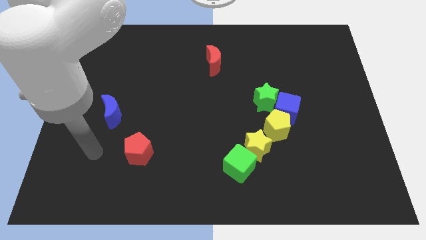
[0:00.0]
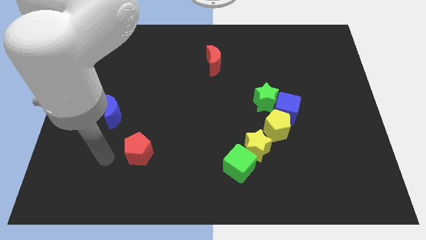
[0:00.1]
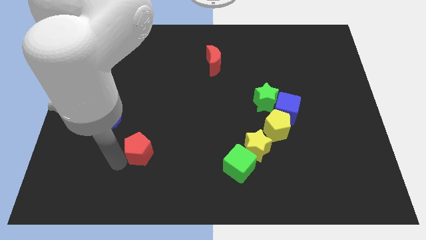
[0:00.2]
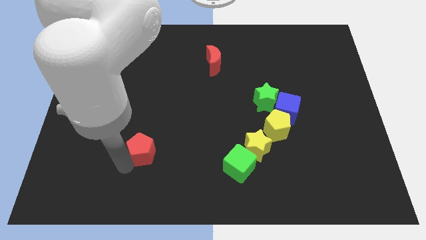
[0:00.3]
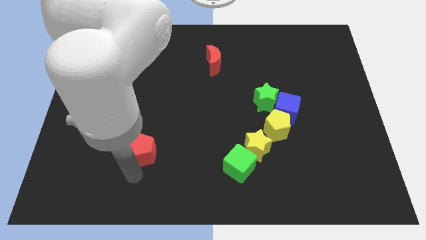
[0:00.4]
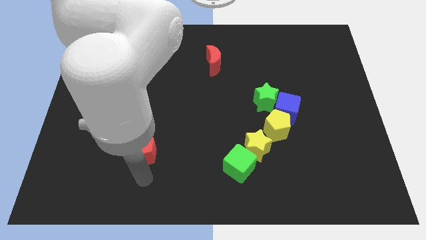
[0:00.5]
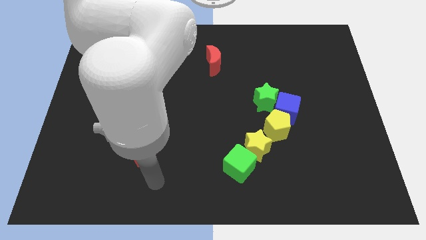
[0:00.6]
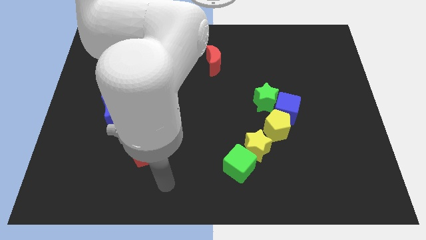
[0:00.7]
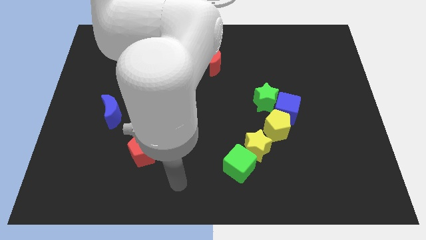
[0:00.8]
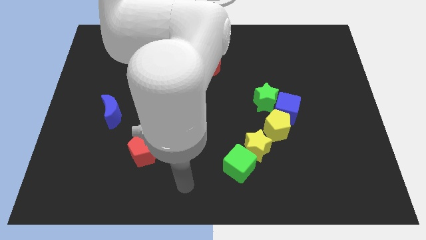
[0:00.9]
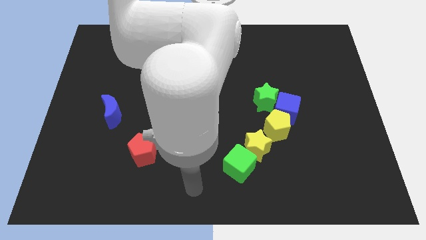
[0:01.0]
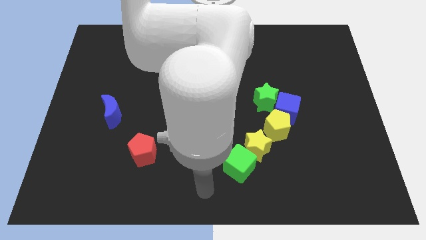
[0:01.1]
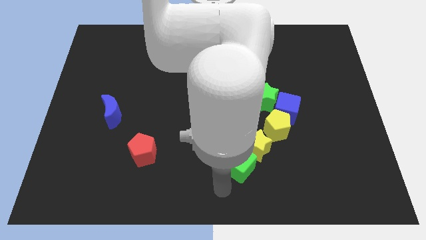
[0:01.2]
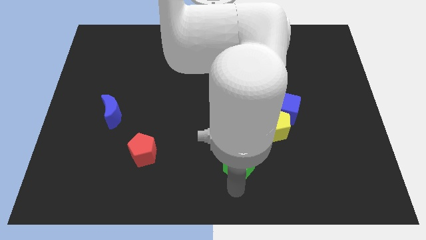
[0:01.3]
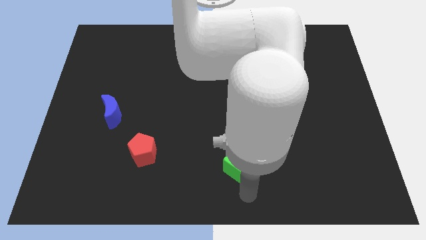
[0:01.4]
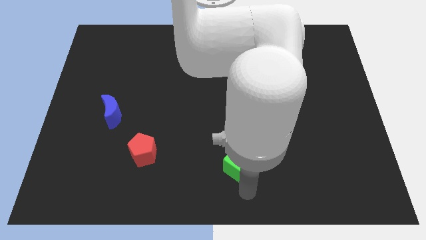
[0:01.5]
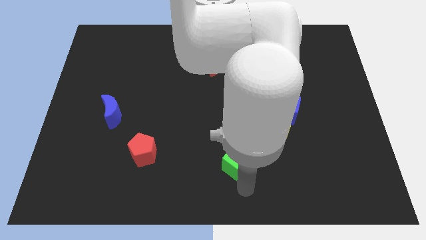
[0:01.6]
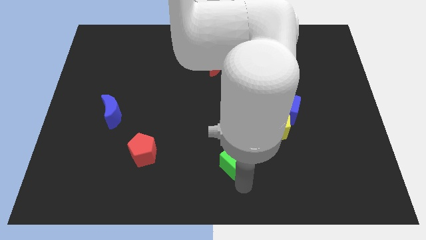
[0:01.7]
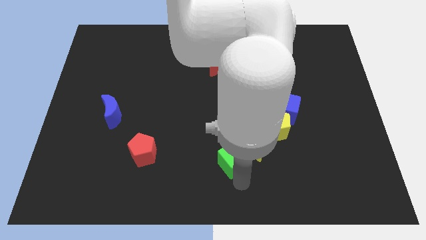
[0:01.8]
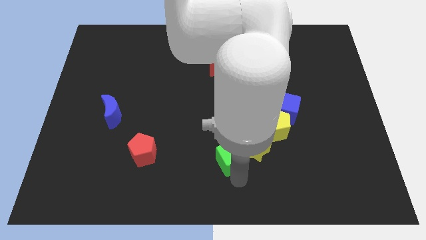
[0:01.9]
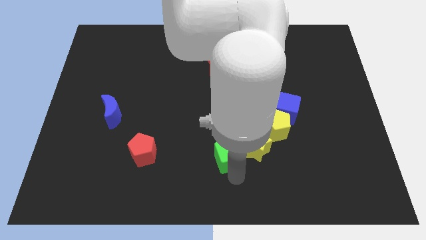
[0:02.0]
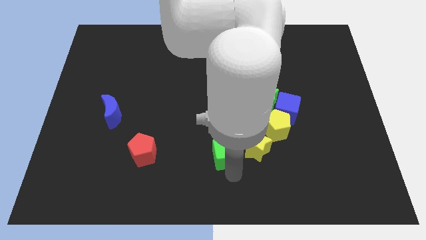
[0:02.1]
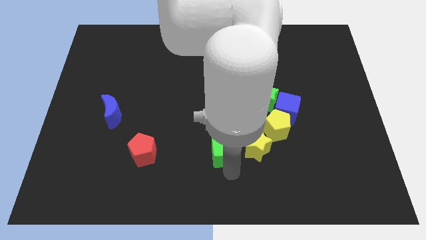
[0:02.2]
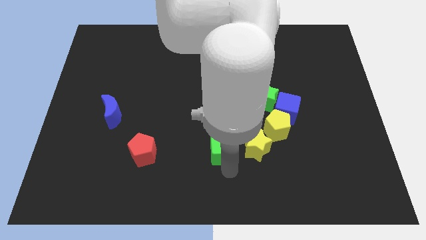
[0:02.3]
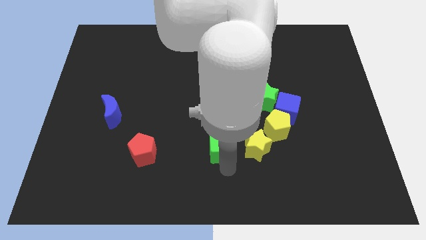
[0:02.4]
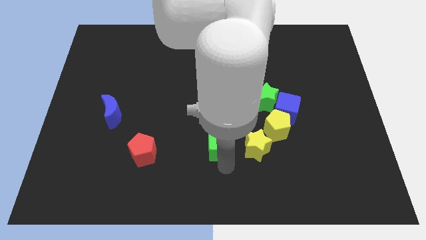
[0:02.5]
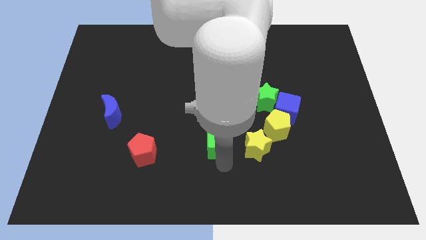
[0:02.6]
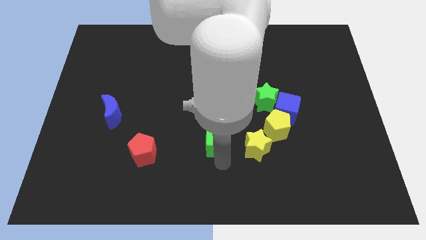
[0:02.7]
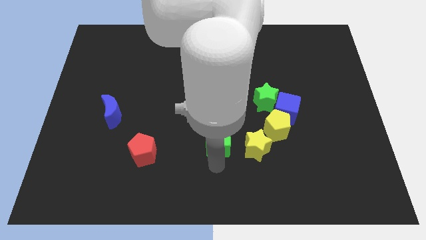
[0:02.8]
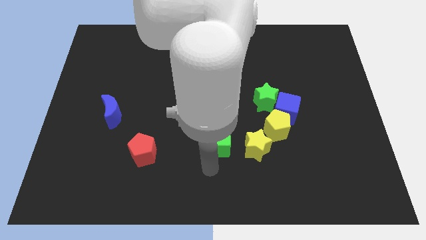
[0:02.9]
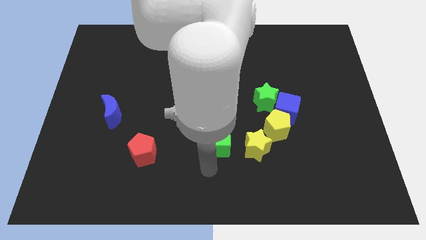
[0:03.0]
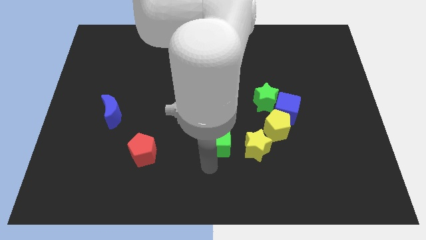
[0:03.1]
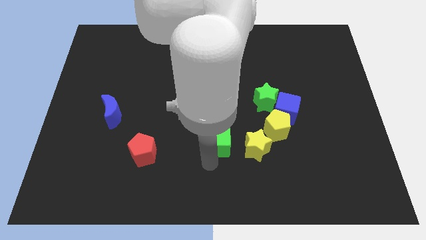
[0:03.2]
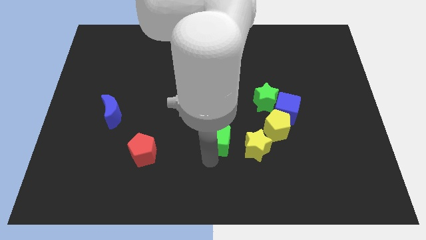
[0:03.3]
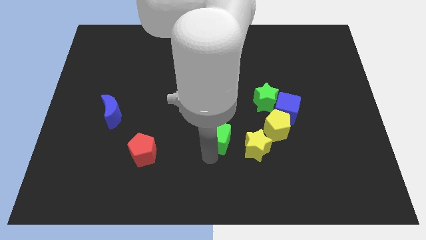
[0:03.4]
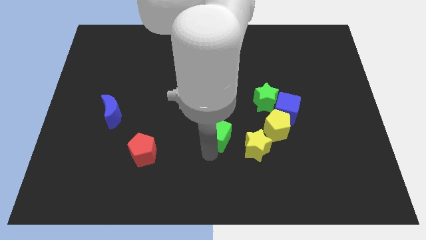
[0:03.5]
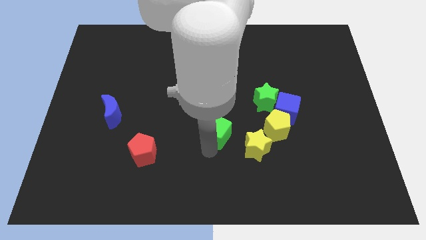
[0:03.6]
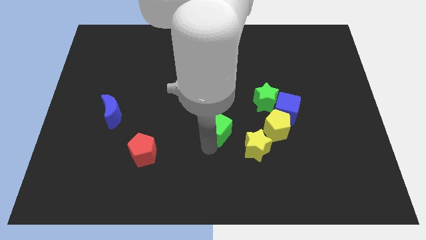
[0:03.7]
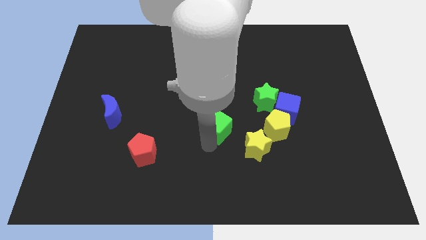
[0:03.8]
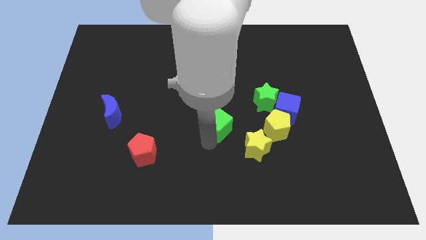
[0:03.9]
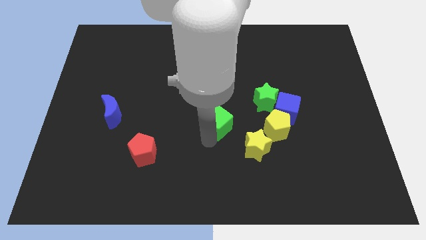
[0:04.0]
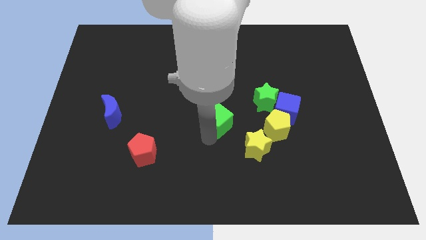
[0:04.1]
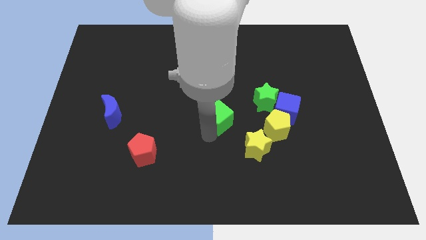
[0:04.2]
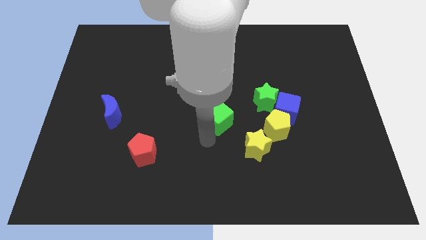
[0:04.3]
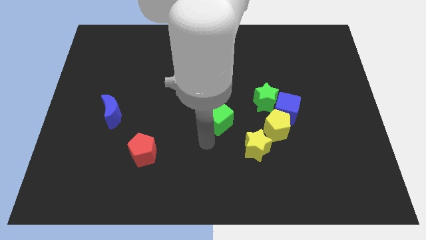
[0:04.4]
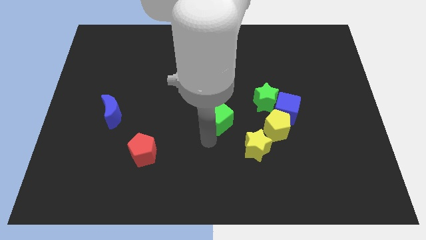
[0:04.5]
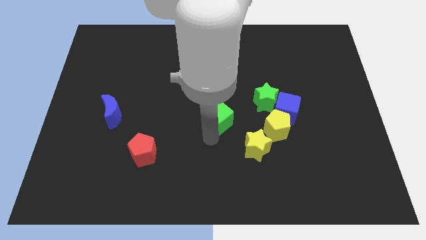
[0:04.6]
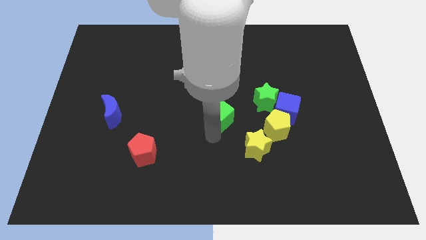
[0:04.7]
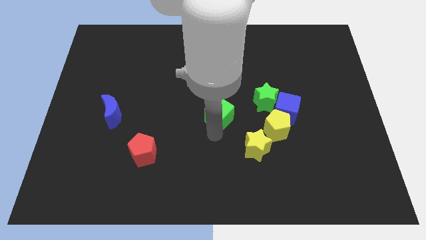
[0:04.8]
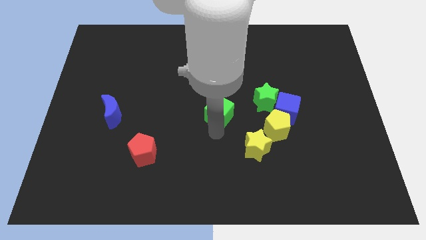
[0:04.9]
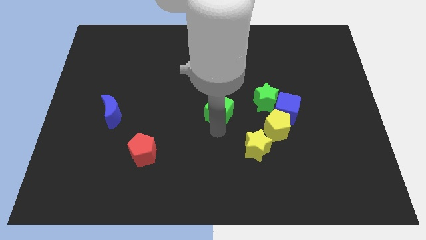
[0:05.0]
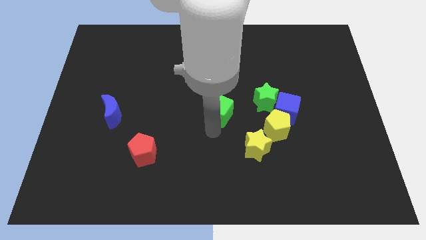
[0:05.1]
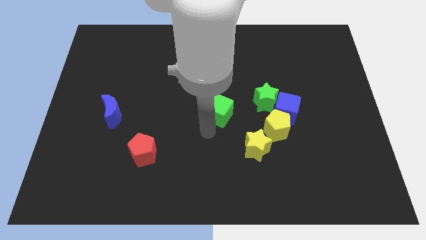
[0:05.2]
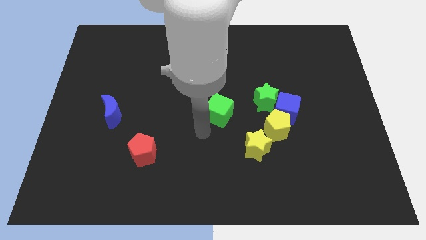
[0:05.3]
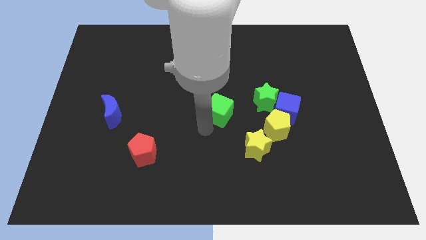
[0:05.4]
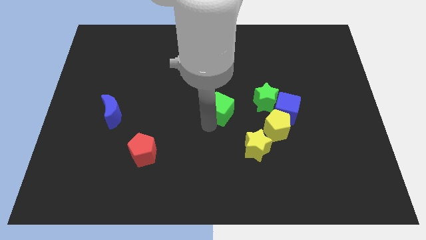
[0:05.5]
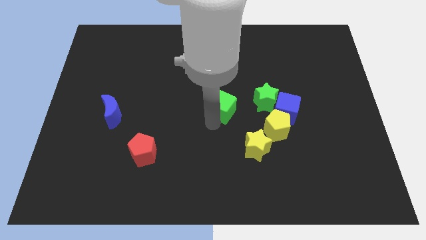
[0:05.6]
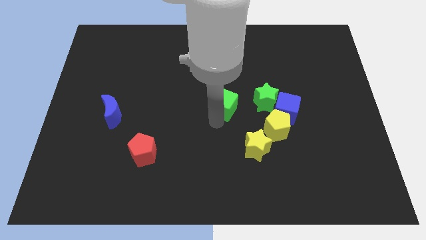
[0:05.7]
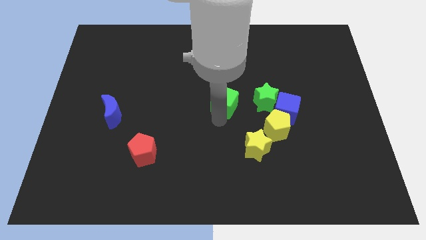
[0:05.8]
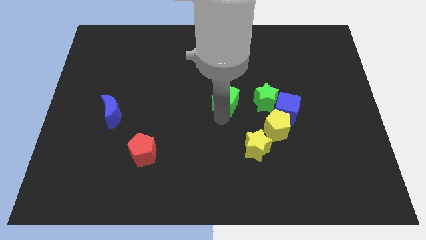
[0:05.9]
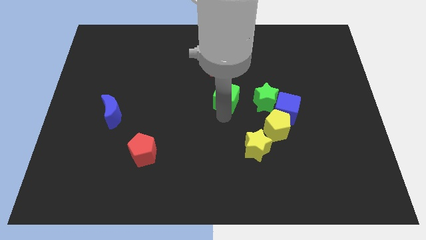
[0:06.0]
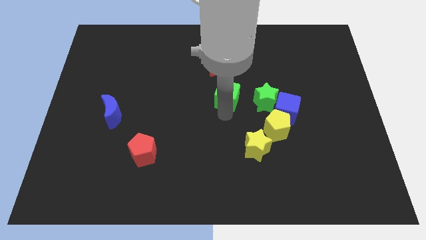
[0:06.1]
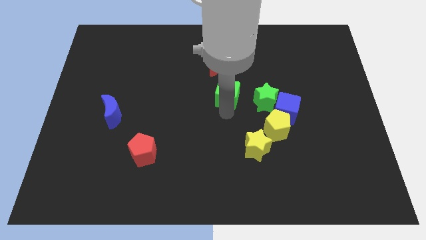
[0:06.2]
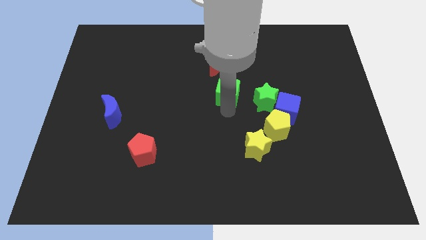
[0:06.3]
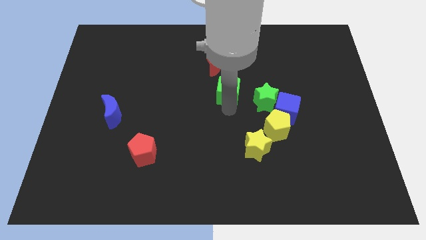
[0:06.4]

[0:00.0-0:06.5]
slide the green cube up

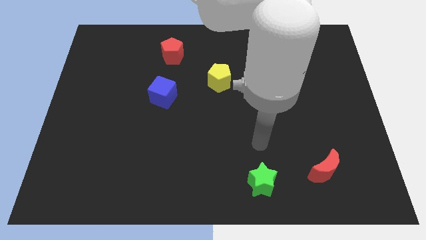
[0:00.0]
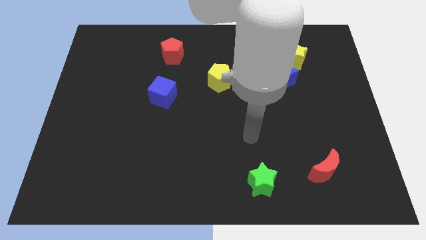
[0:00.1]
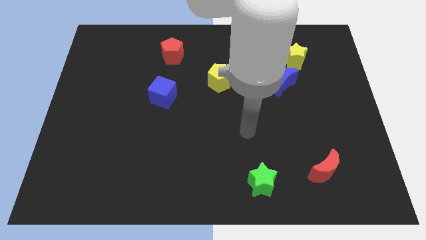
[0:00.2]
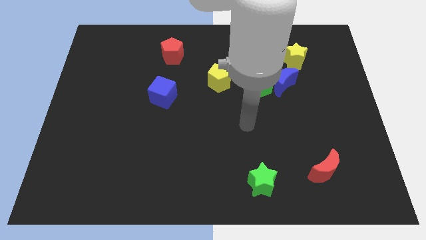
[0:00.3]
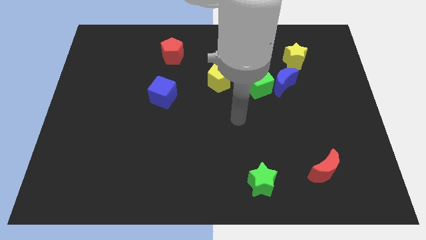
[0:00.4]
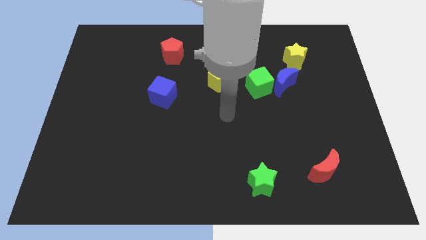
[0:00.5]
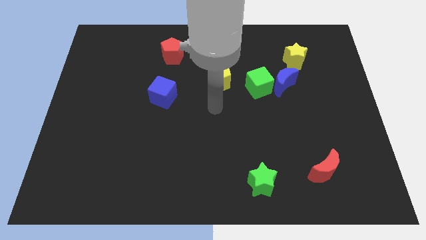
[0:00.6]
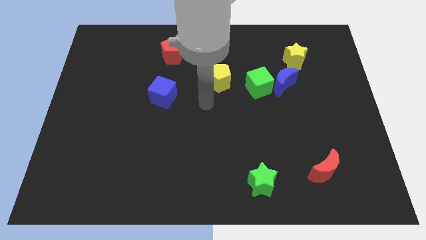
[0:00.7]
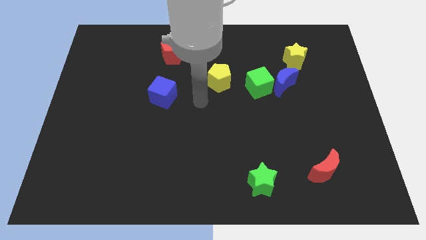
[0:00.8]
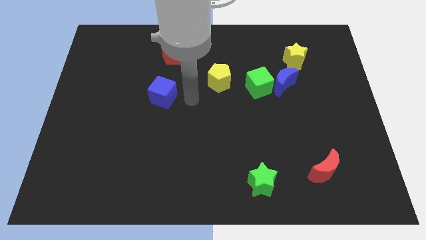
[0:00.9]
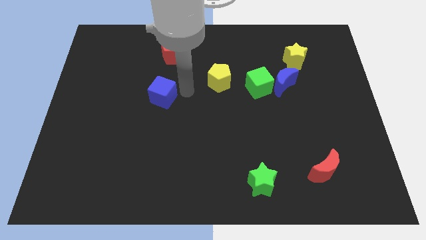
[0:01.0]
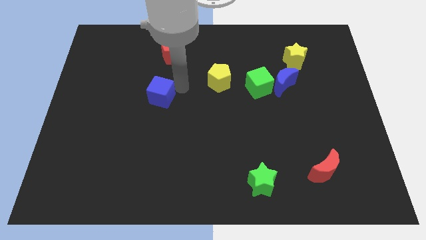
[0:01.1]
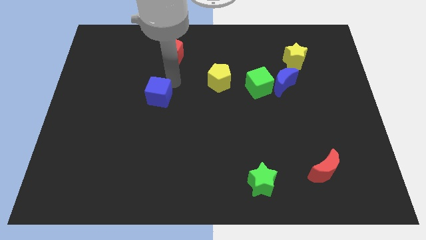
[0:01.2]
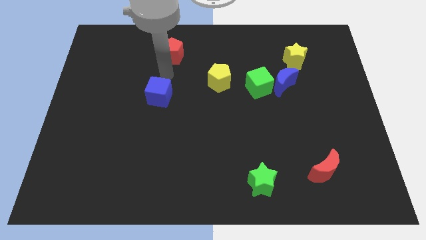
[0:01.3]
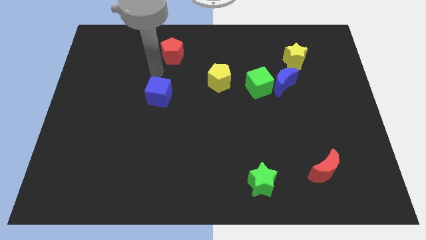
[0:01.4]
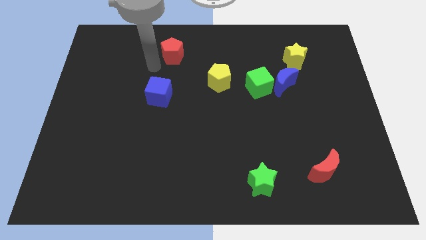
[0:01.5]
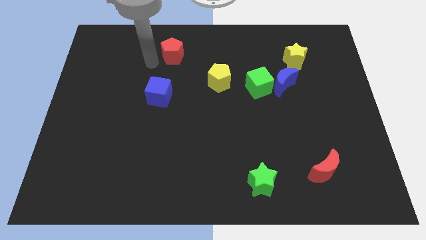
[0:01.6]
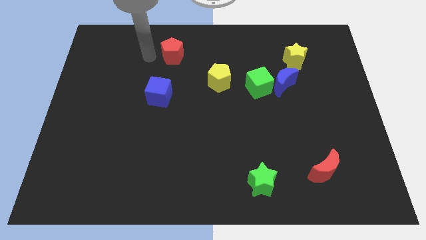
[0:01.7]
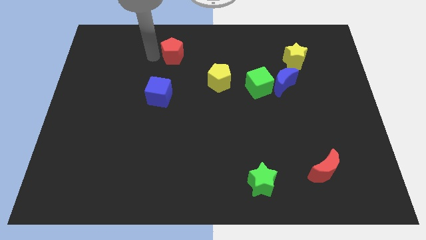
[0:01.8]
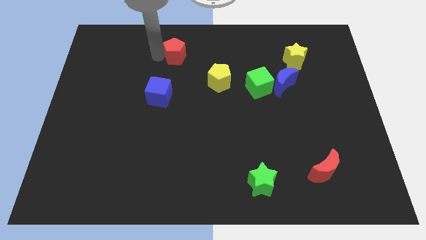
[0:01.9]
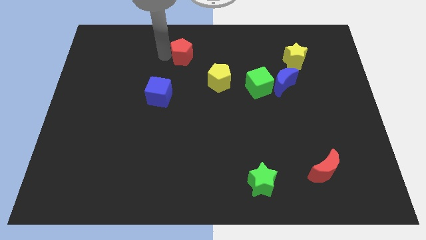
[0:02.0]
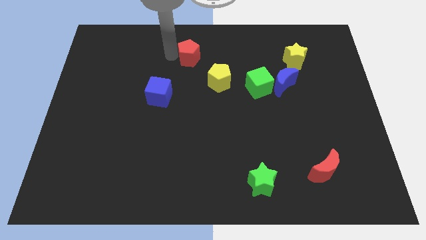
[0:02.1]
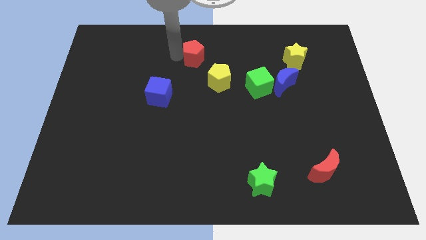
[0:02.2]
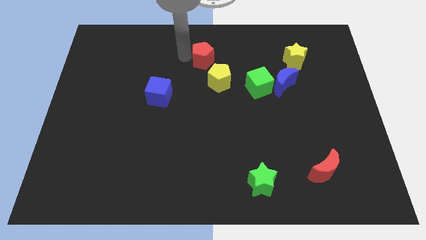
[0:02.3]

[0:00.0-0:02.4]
push the red pentagon right somewhat
